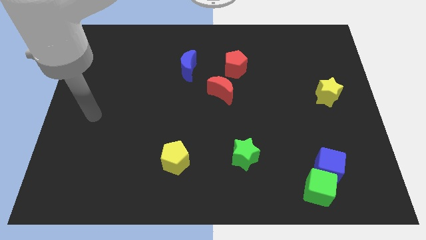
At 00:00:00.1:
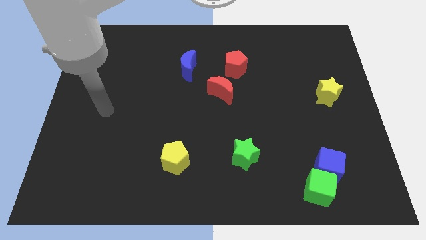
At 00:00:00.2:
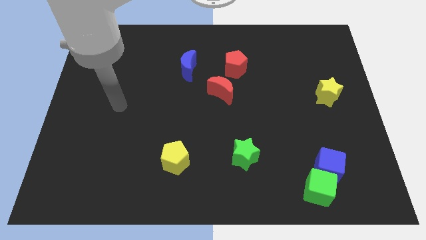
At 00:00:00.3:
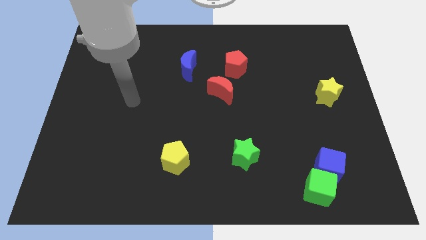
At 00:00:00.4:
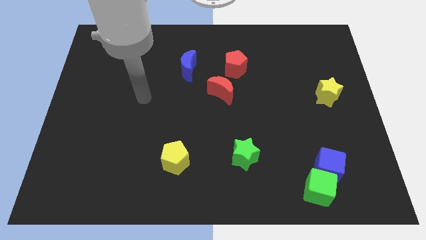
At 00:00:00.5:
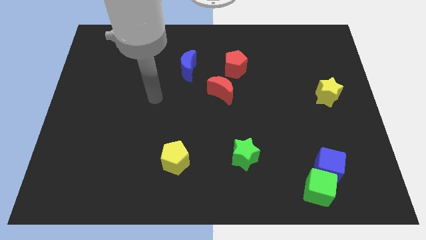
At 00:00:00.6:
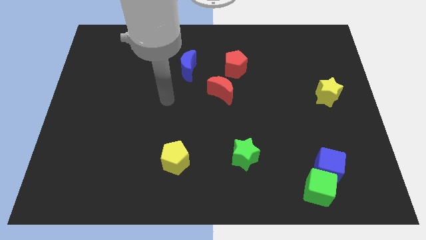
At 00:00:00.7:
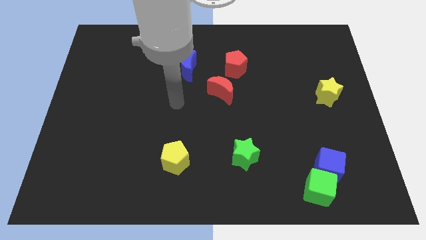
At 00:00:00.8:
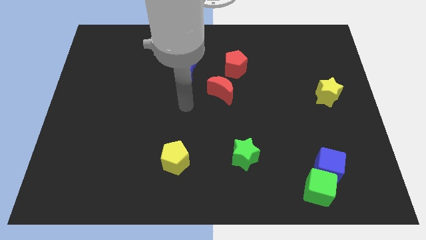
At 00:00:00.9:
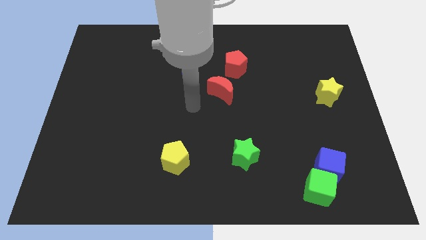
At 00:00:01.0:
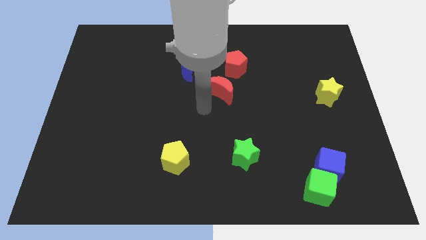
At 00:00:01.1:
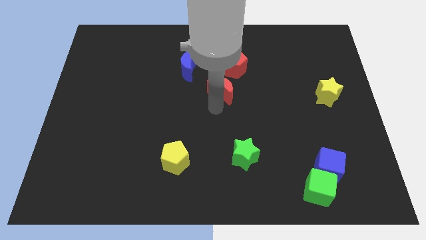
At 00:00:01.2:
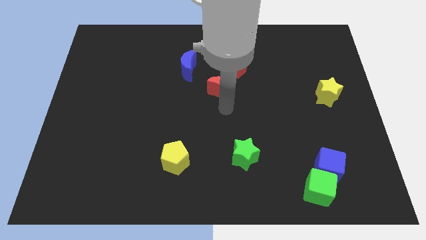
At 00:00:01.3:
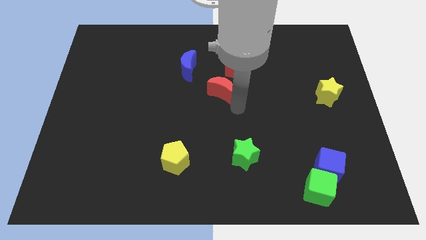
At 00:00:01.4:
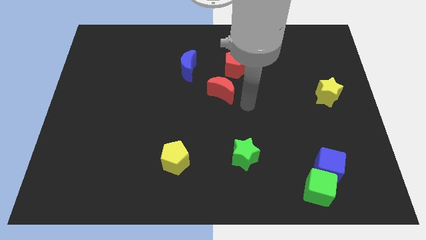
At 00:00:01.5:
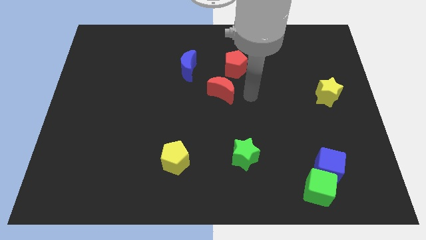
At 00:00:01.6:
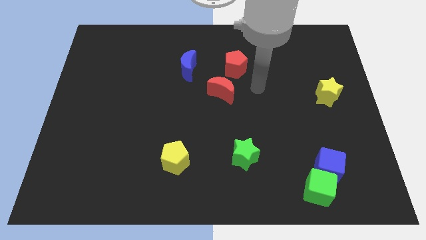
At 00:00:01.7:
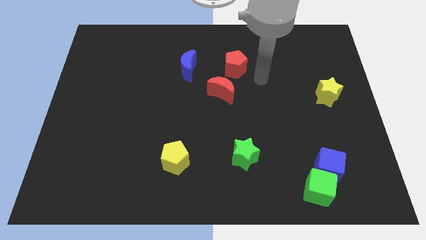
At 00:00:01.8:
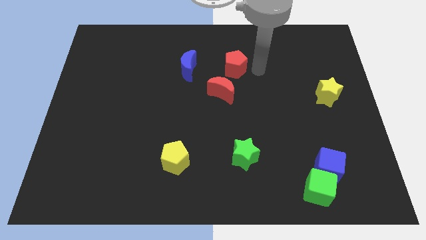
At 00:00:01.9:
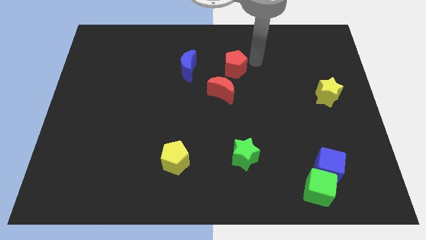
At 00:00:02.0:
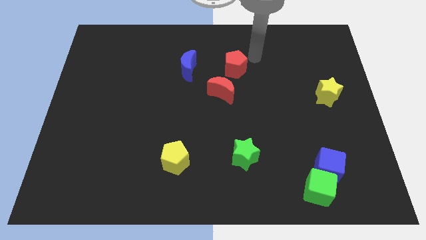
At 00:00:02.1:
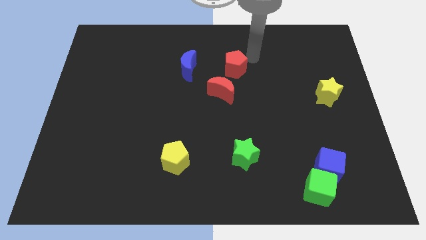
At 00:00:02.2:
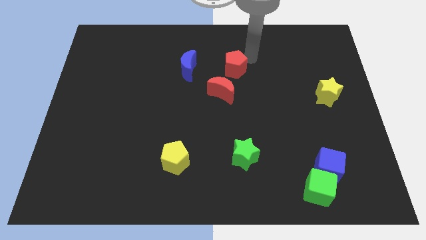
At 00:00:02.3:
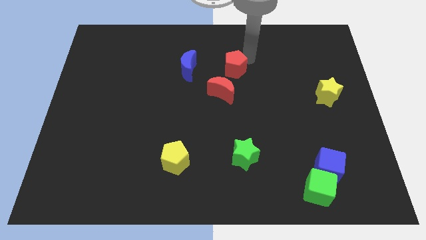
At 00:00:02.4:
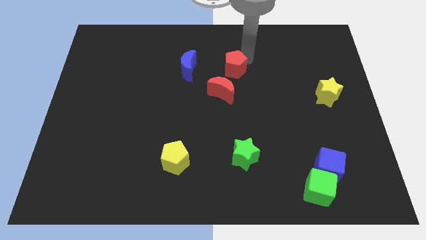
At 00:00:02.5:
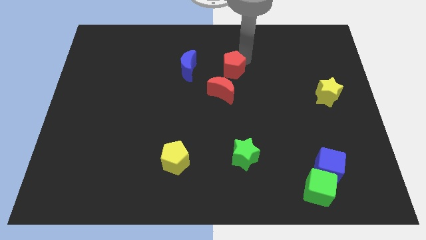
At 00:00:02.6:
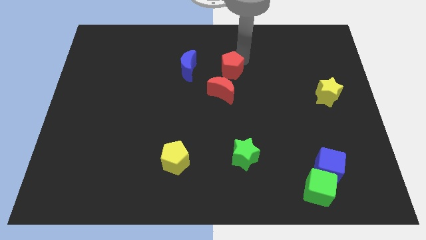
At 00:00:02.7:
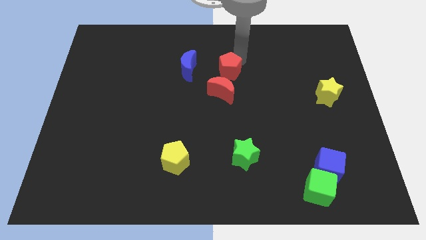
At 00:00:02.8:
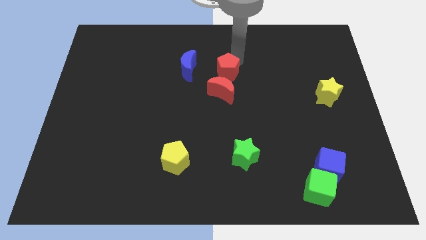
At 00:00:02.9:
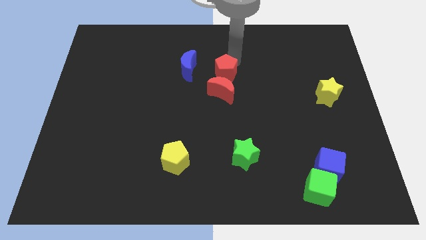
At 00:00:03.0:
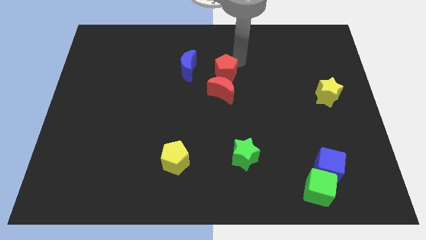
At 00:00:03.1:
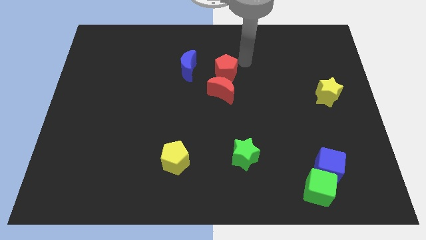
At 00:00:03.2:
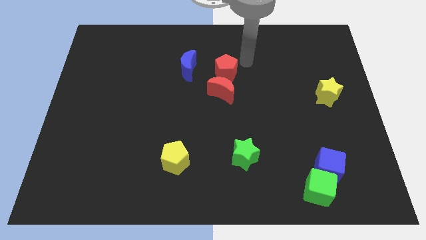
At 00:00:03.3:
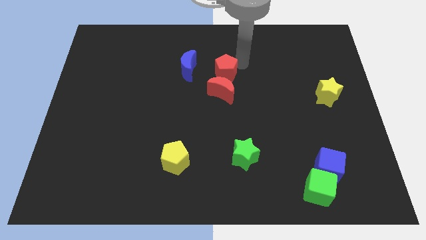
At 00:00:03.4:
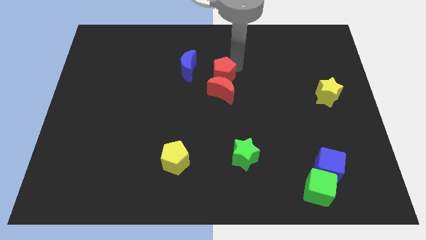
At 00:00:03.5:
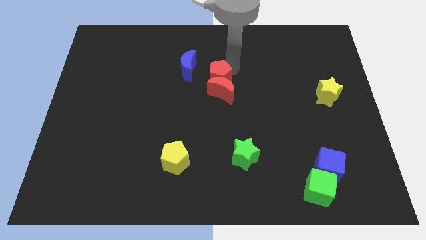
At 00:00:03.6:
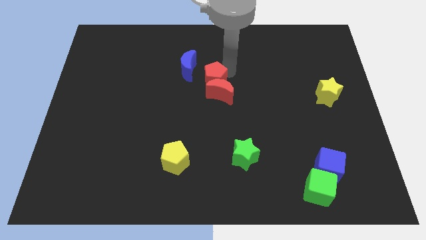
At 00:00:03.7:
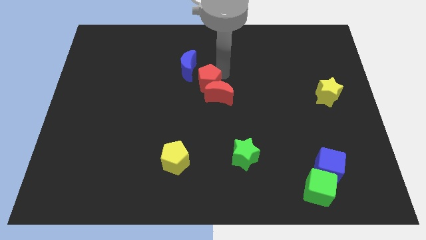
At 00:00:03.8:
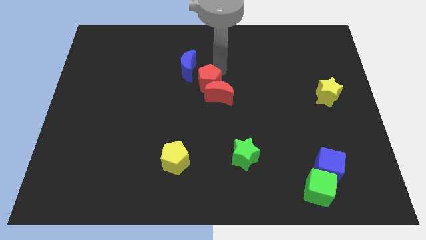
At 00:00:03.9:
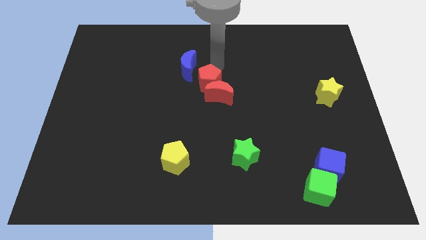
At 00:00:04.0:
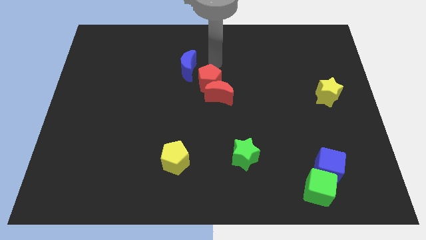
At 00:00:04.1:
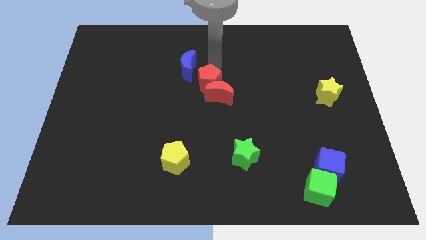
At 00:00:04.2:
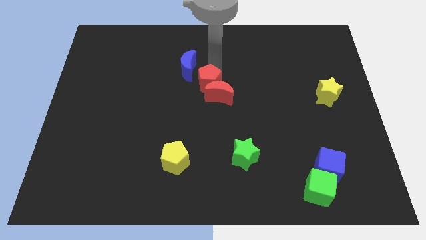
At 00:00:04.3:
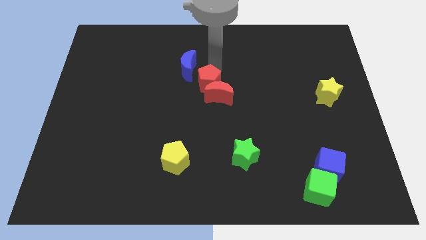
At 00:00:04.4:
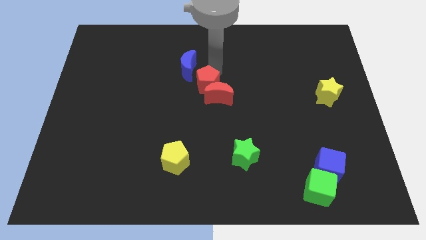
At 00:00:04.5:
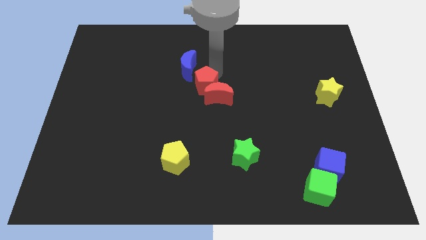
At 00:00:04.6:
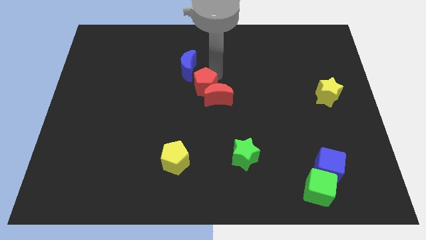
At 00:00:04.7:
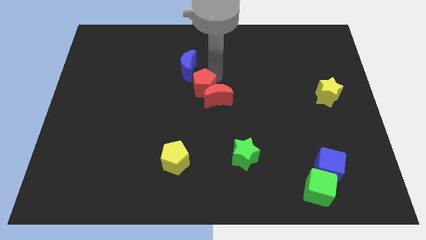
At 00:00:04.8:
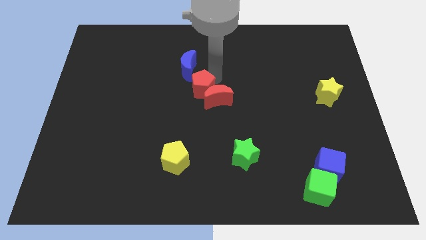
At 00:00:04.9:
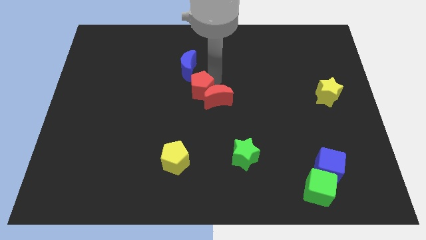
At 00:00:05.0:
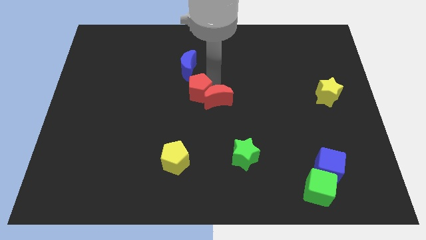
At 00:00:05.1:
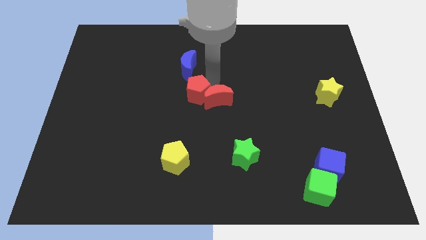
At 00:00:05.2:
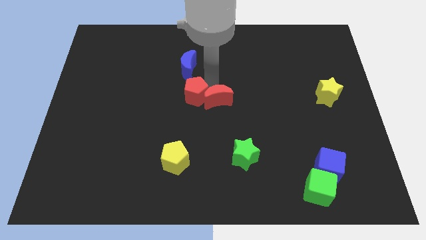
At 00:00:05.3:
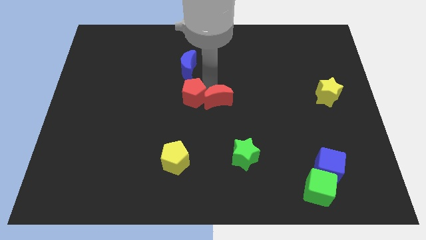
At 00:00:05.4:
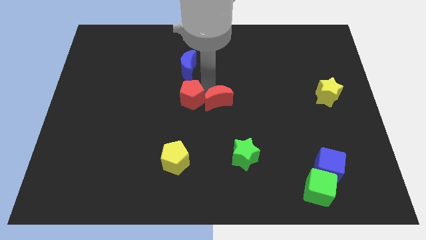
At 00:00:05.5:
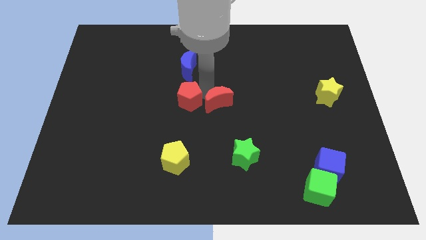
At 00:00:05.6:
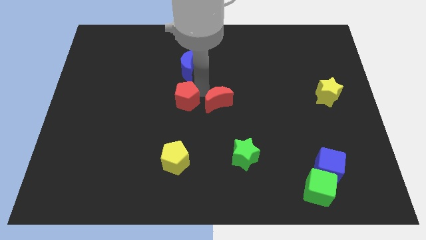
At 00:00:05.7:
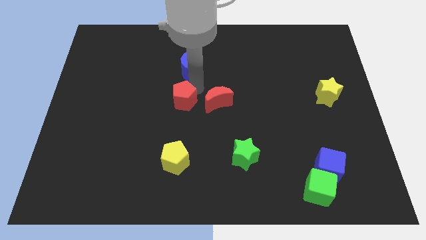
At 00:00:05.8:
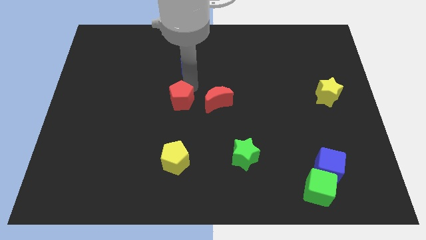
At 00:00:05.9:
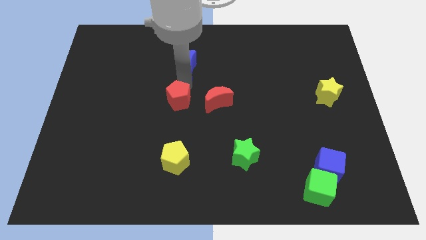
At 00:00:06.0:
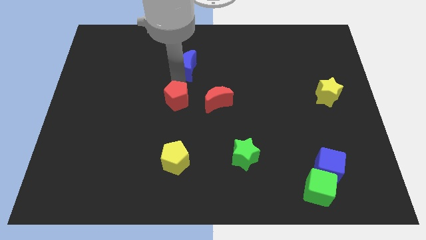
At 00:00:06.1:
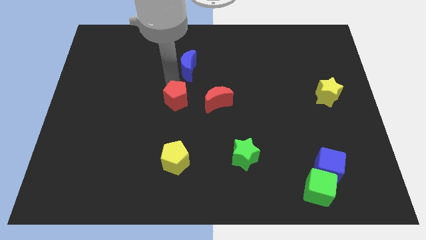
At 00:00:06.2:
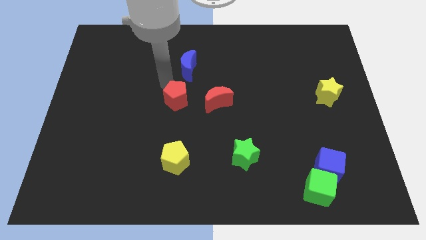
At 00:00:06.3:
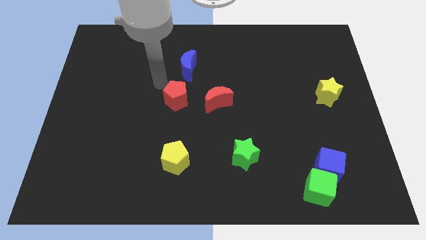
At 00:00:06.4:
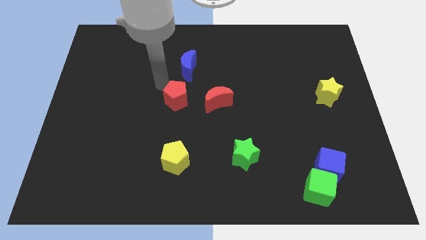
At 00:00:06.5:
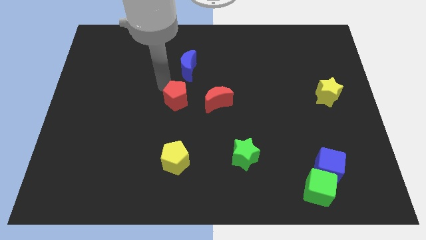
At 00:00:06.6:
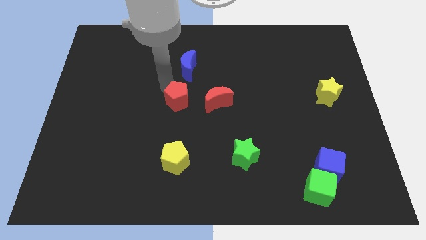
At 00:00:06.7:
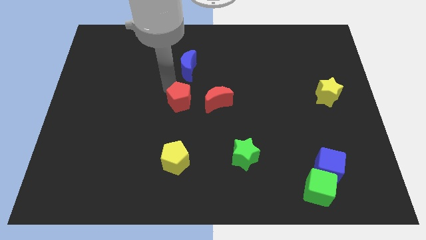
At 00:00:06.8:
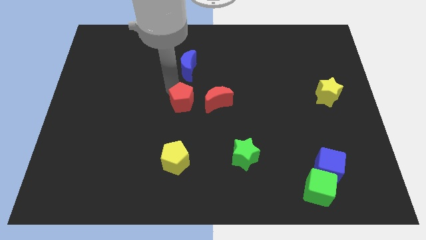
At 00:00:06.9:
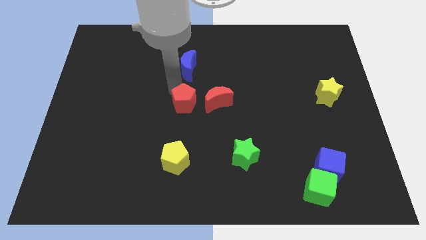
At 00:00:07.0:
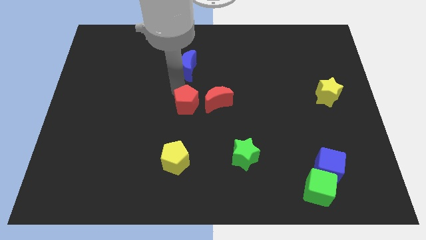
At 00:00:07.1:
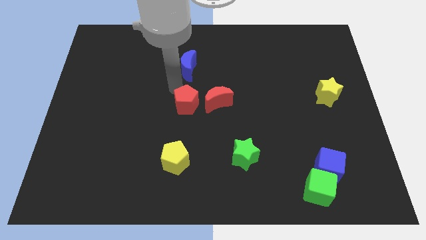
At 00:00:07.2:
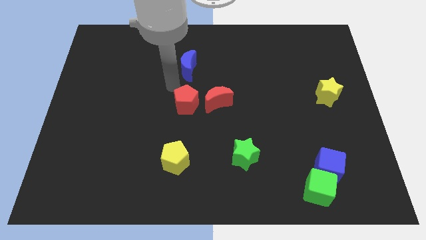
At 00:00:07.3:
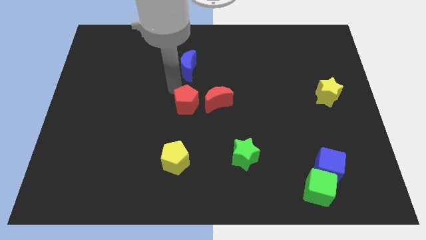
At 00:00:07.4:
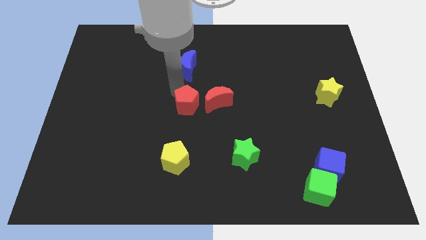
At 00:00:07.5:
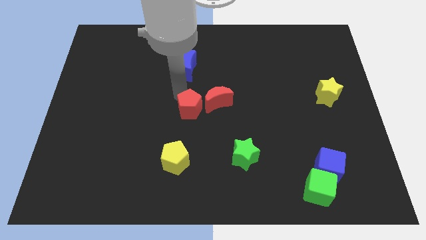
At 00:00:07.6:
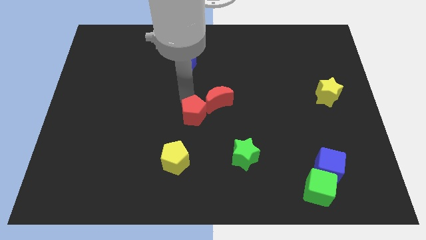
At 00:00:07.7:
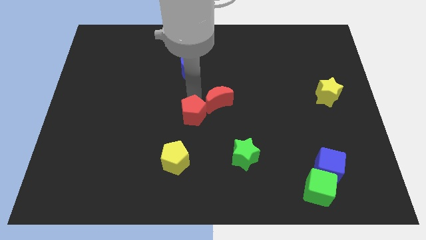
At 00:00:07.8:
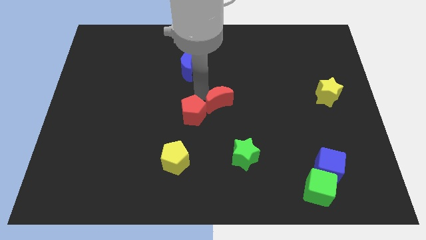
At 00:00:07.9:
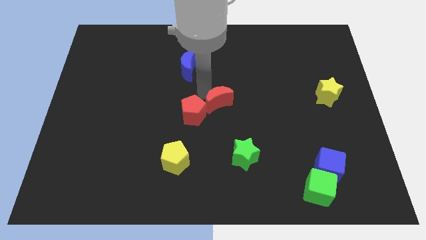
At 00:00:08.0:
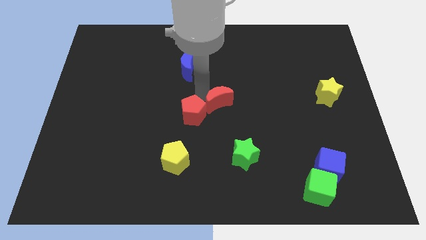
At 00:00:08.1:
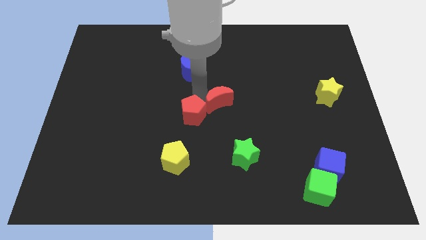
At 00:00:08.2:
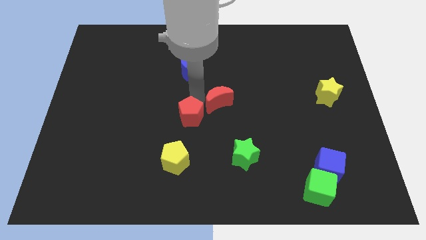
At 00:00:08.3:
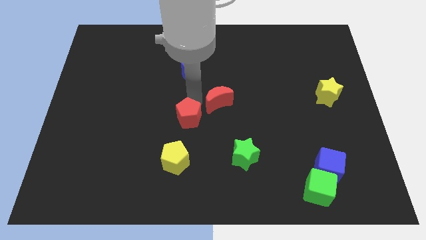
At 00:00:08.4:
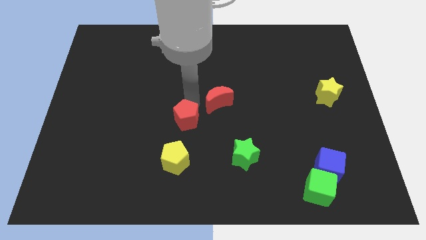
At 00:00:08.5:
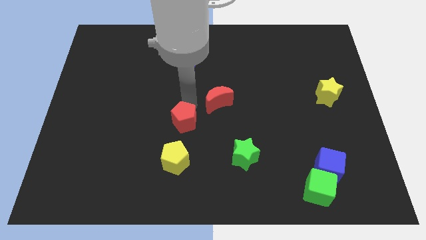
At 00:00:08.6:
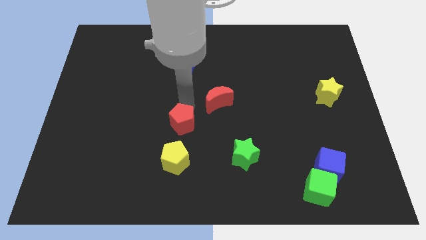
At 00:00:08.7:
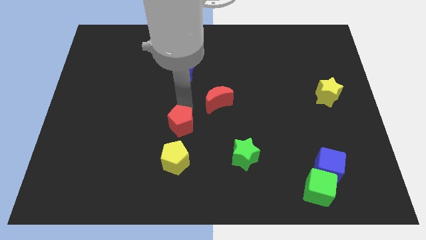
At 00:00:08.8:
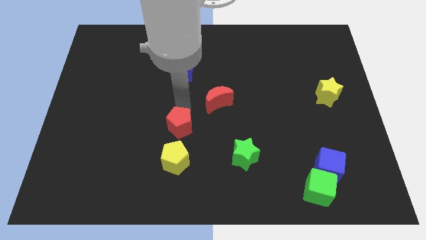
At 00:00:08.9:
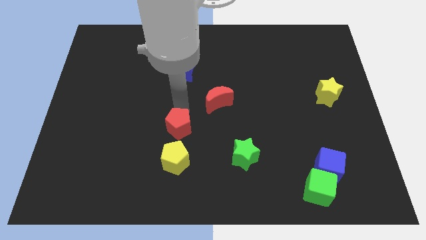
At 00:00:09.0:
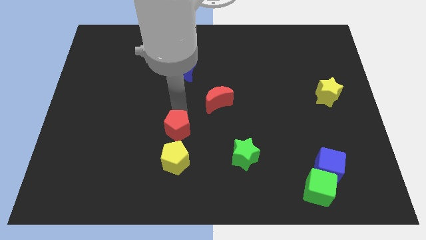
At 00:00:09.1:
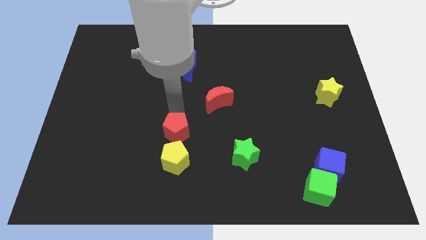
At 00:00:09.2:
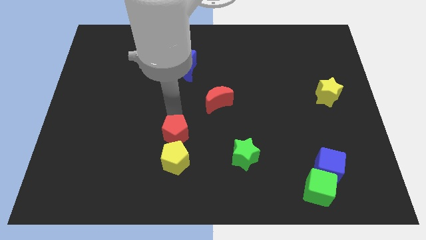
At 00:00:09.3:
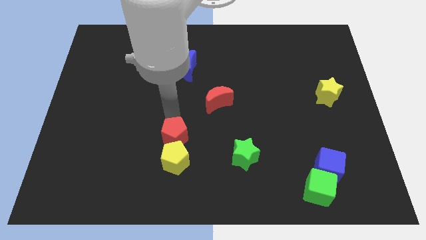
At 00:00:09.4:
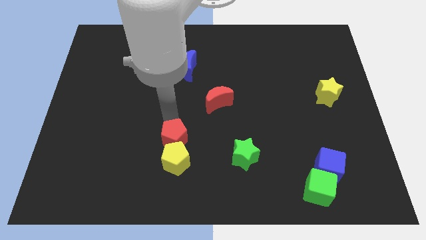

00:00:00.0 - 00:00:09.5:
push the red pentagon next to the yellow pentagon
